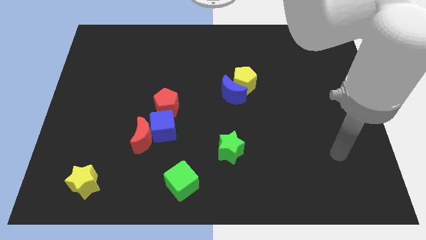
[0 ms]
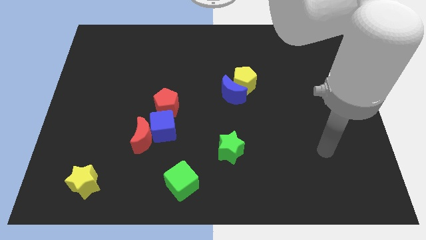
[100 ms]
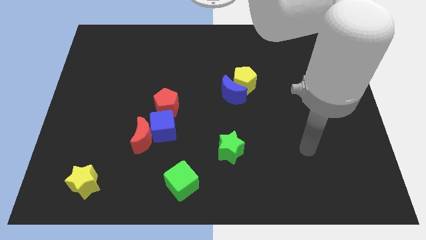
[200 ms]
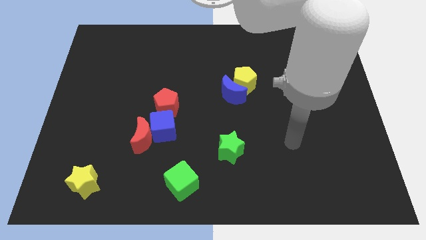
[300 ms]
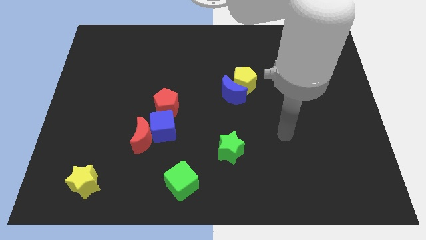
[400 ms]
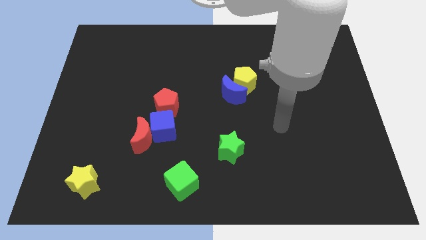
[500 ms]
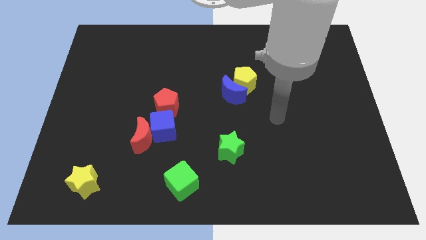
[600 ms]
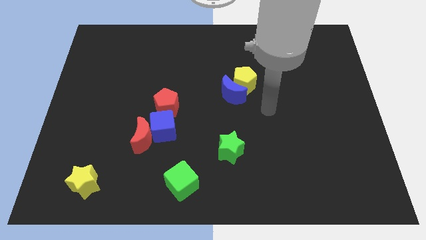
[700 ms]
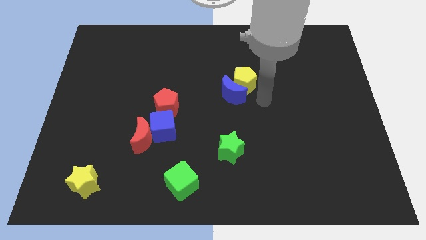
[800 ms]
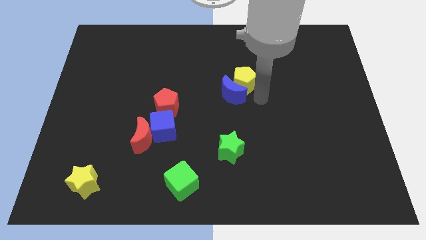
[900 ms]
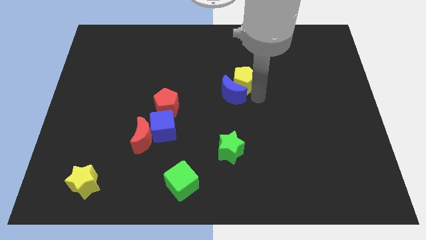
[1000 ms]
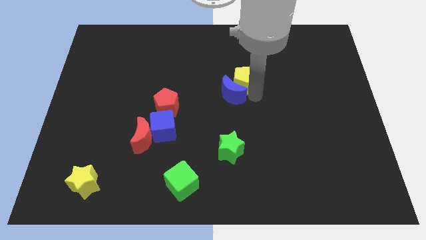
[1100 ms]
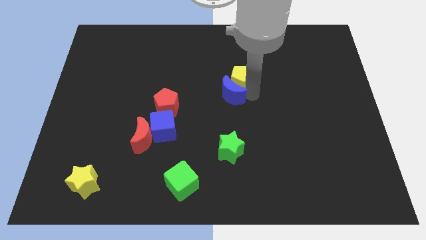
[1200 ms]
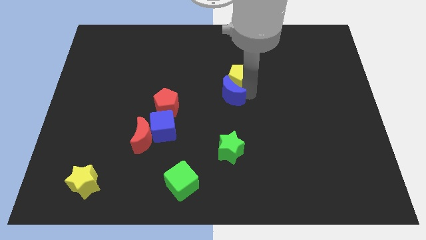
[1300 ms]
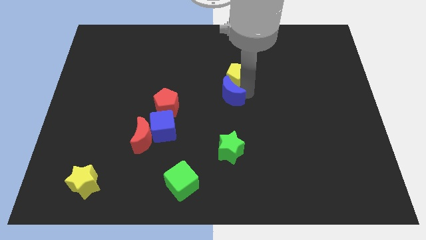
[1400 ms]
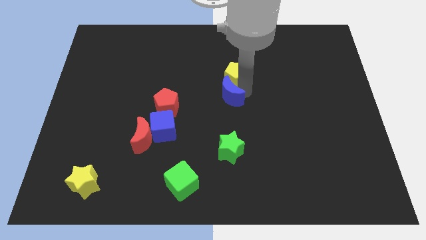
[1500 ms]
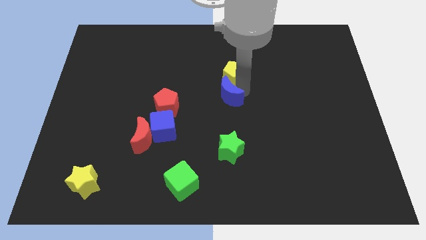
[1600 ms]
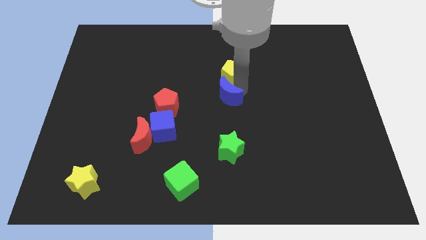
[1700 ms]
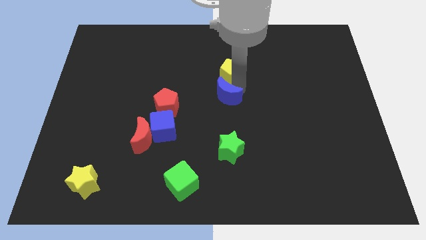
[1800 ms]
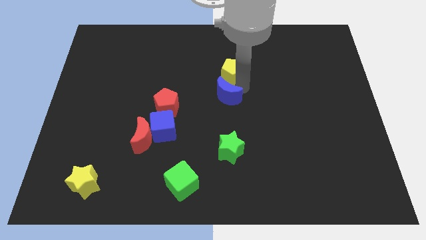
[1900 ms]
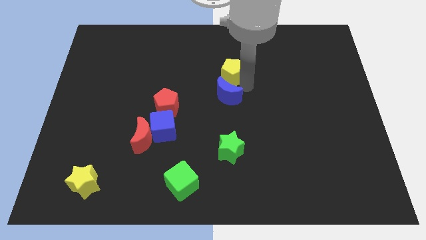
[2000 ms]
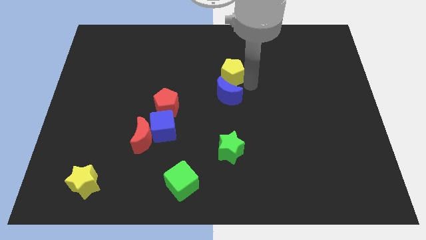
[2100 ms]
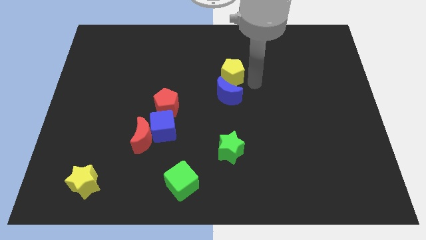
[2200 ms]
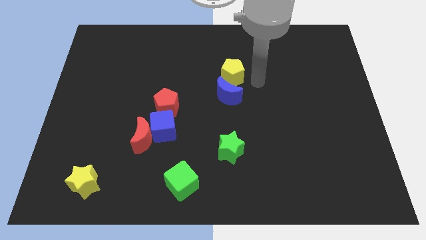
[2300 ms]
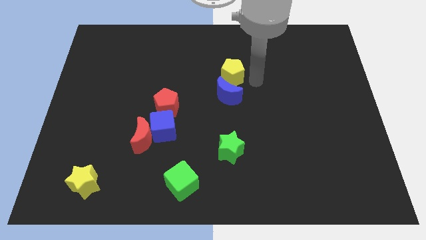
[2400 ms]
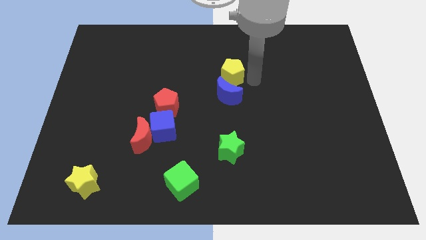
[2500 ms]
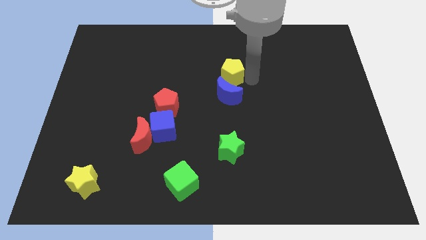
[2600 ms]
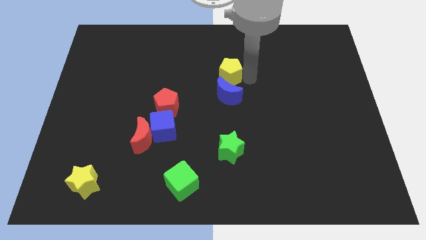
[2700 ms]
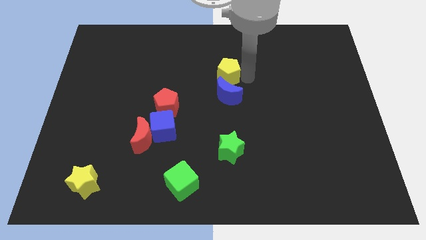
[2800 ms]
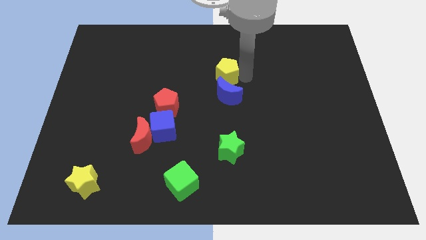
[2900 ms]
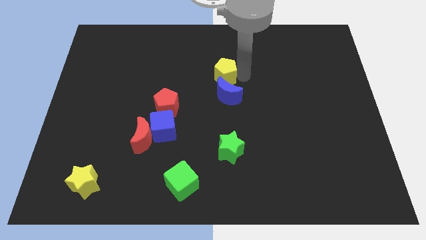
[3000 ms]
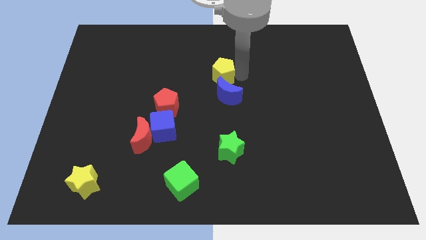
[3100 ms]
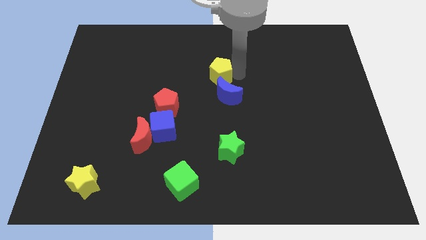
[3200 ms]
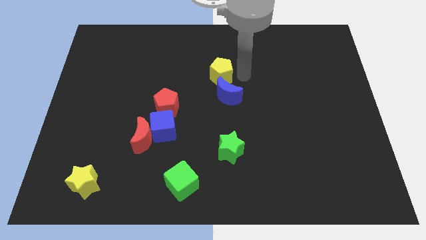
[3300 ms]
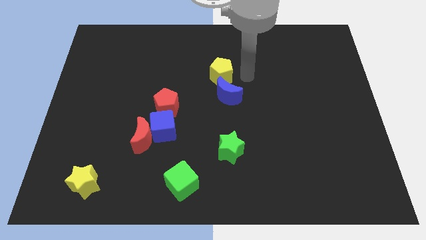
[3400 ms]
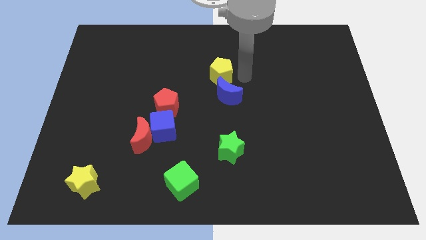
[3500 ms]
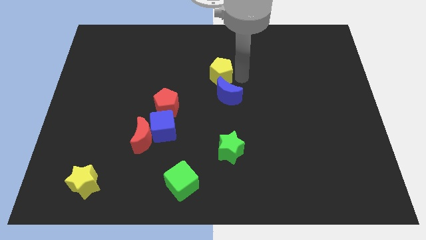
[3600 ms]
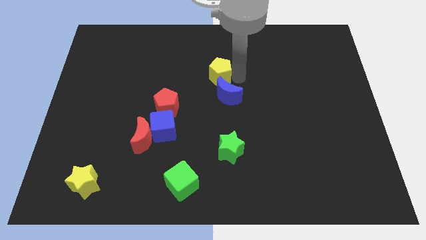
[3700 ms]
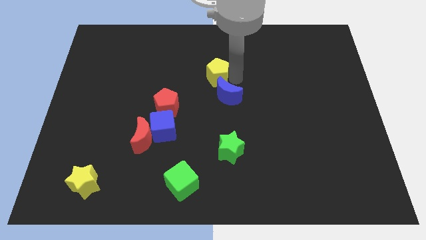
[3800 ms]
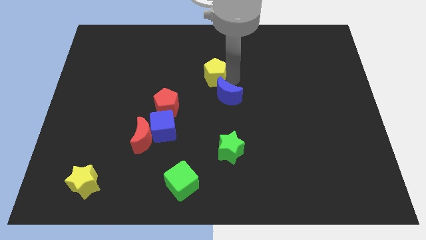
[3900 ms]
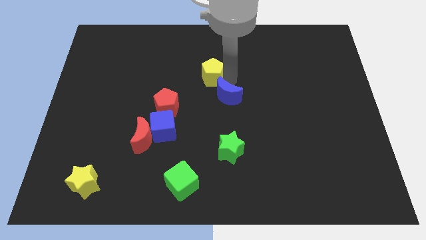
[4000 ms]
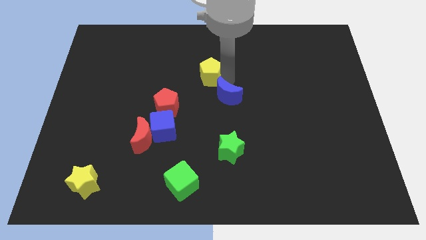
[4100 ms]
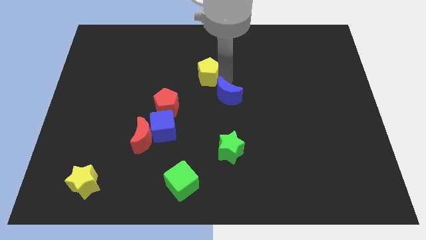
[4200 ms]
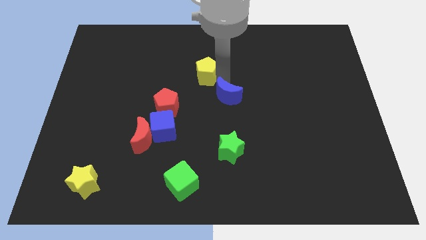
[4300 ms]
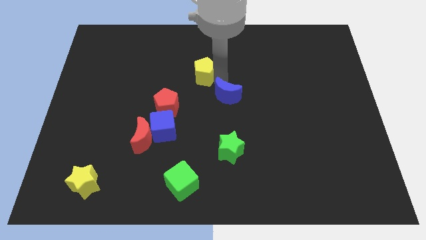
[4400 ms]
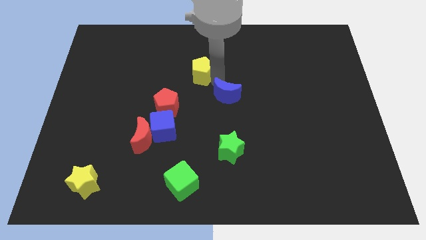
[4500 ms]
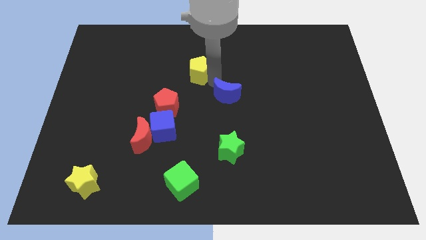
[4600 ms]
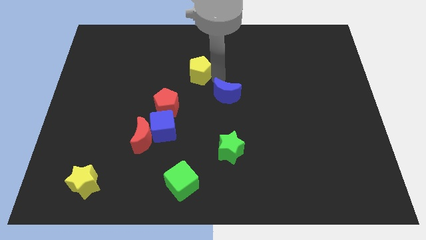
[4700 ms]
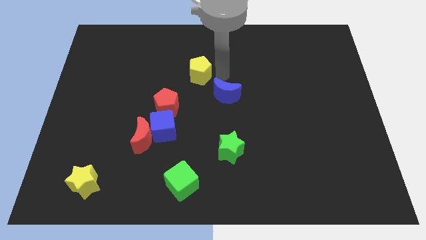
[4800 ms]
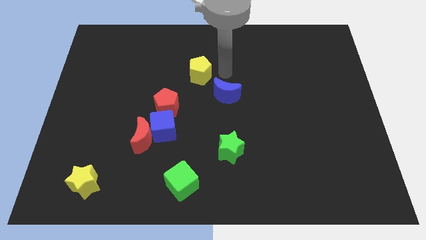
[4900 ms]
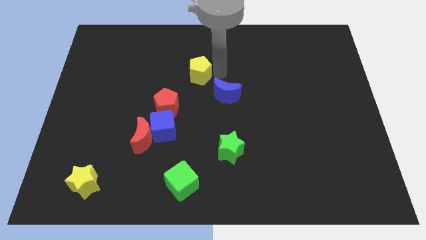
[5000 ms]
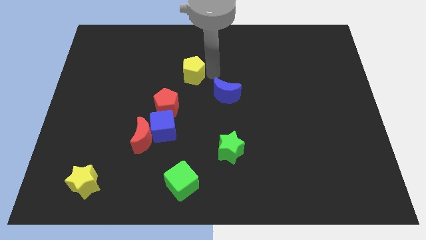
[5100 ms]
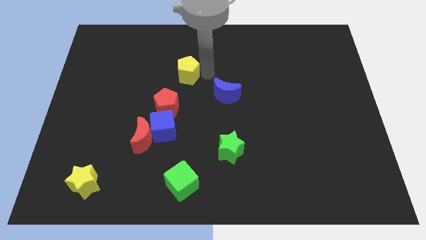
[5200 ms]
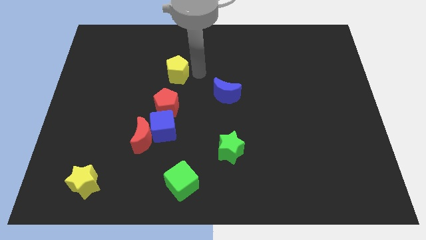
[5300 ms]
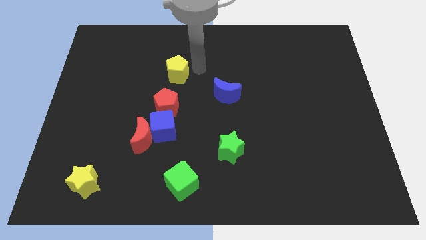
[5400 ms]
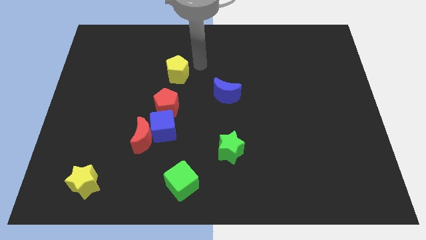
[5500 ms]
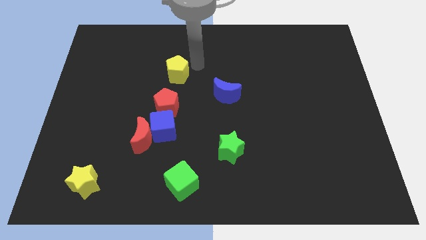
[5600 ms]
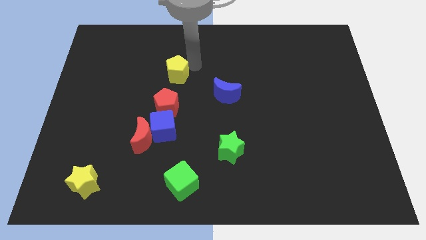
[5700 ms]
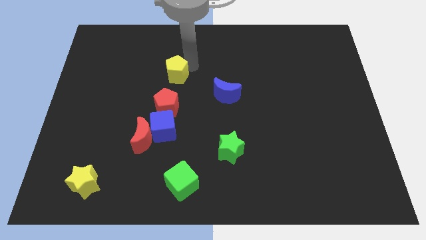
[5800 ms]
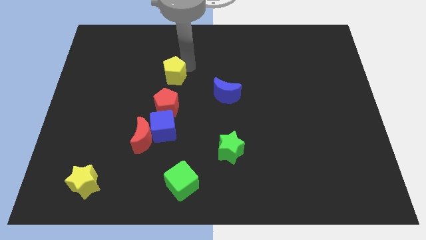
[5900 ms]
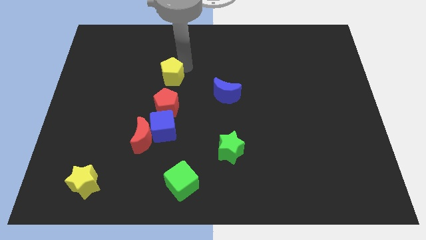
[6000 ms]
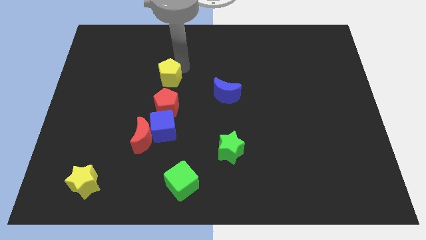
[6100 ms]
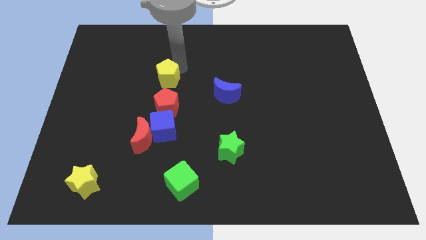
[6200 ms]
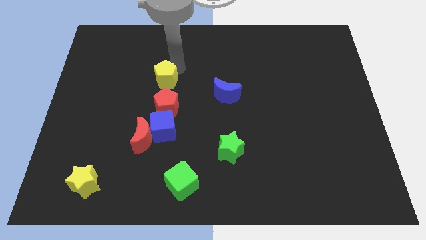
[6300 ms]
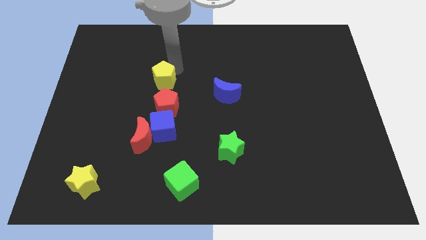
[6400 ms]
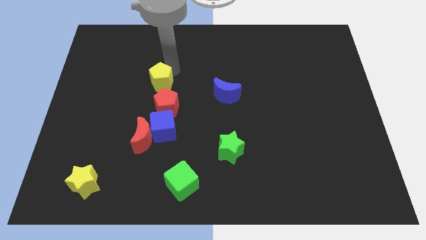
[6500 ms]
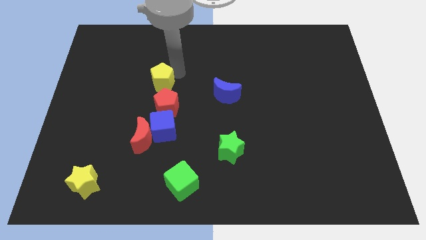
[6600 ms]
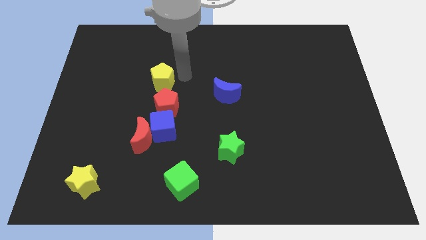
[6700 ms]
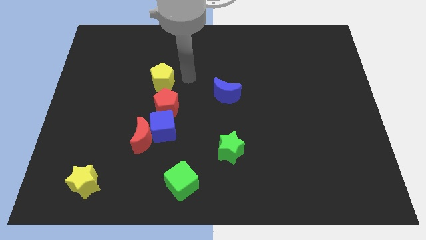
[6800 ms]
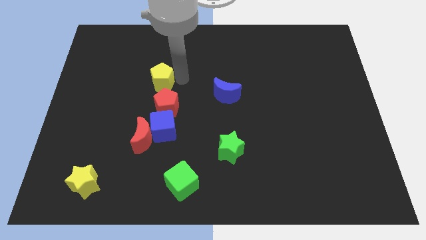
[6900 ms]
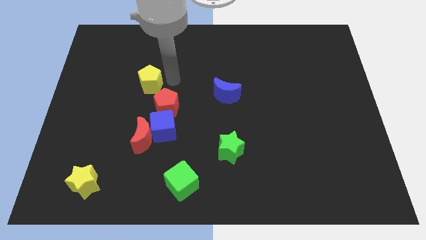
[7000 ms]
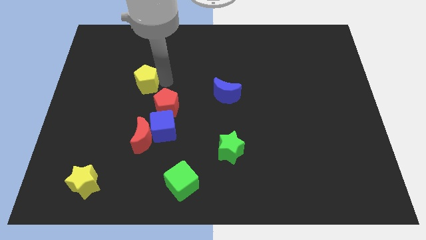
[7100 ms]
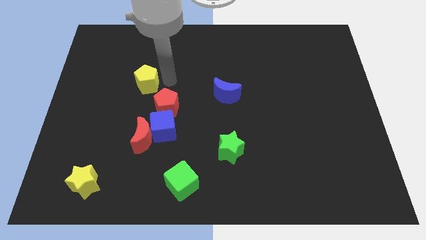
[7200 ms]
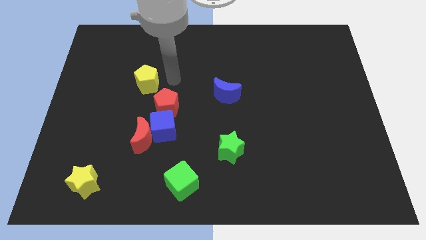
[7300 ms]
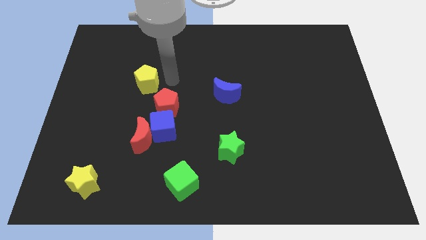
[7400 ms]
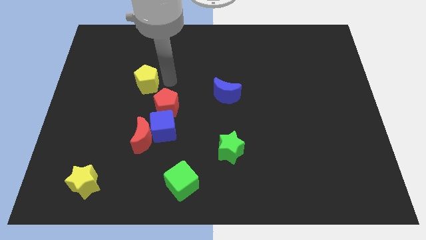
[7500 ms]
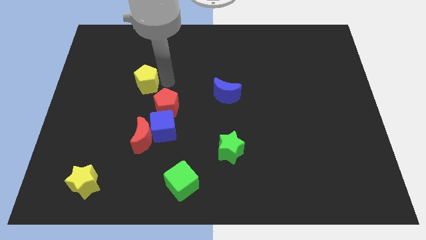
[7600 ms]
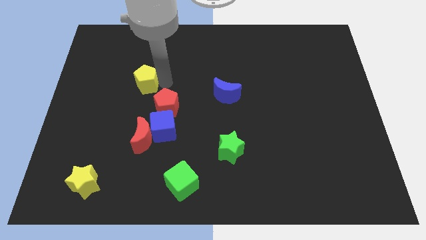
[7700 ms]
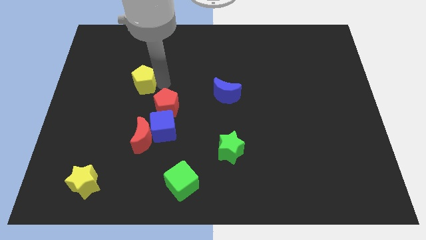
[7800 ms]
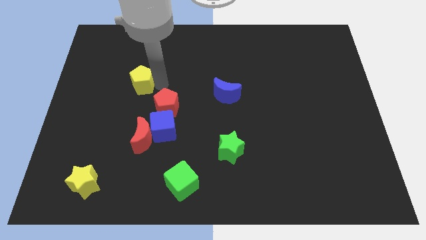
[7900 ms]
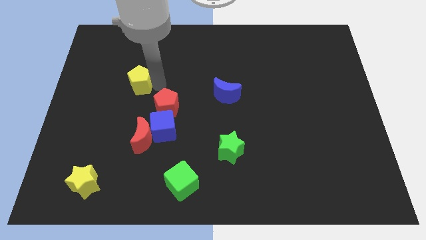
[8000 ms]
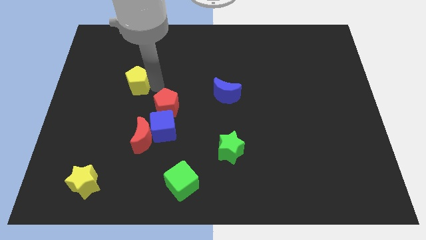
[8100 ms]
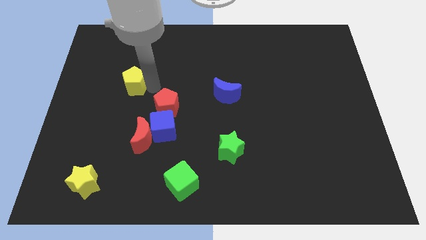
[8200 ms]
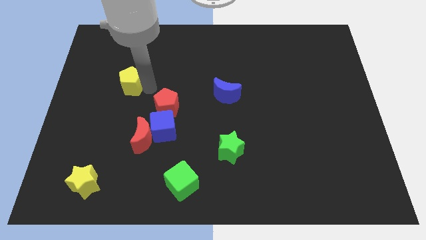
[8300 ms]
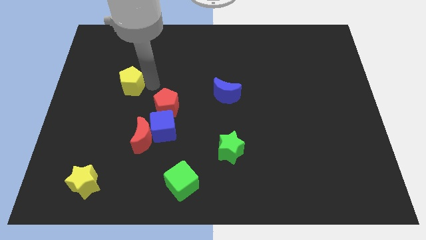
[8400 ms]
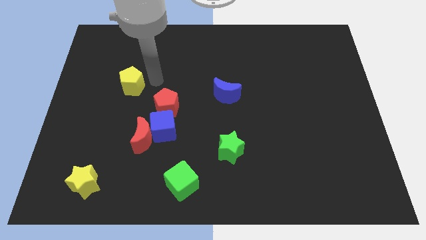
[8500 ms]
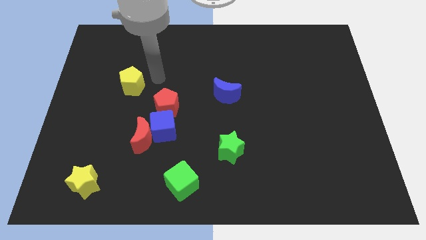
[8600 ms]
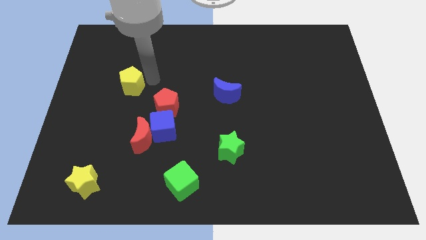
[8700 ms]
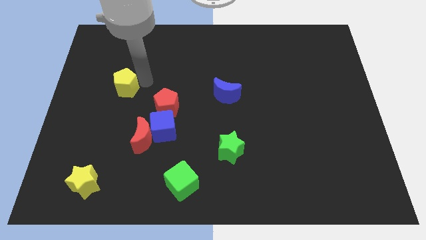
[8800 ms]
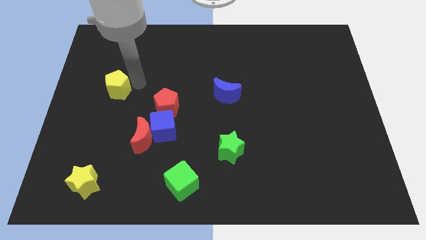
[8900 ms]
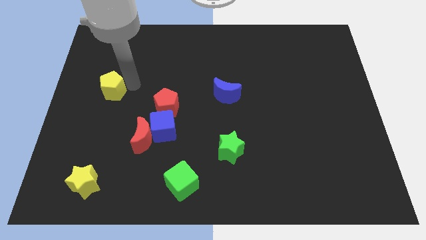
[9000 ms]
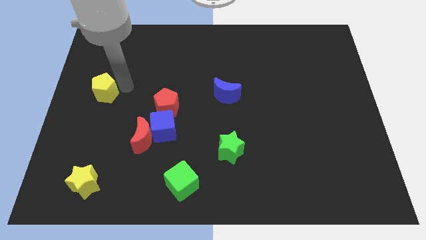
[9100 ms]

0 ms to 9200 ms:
put the yellow pentagon to the center left
